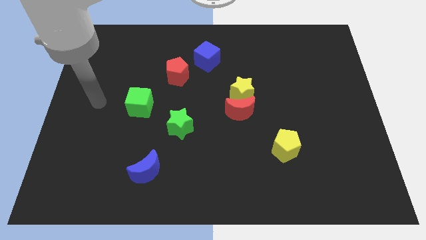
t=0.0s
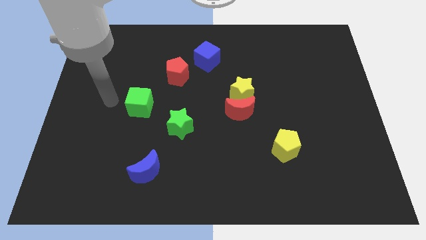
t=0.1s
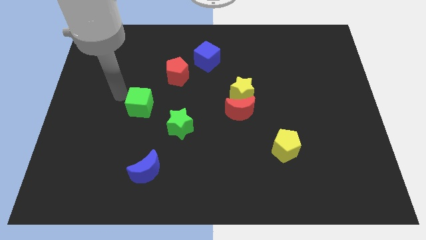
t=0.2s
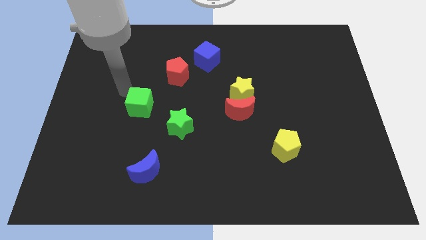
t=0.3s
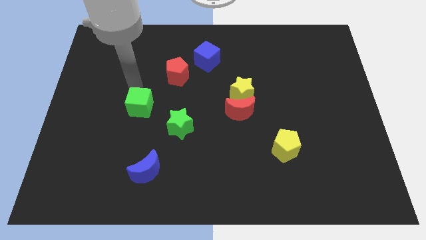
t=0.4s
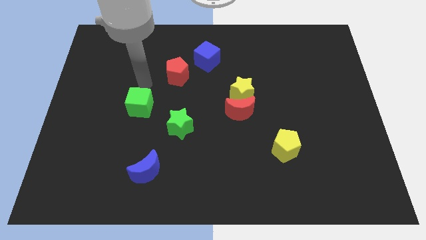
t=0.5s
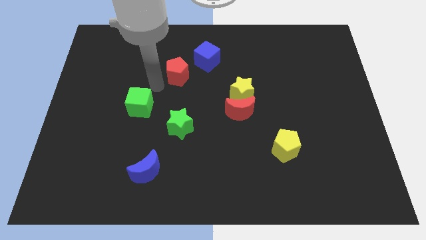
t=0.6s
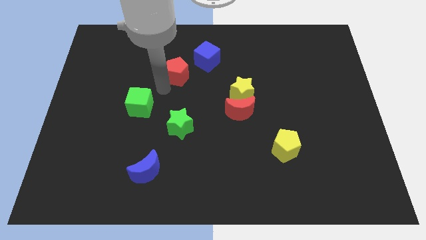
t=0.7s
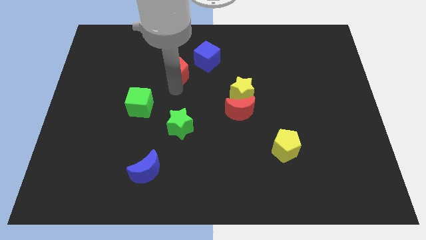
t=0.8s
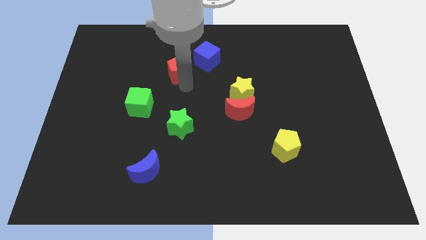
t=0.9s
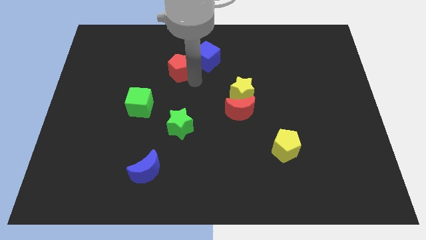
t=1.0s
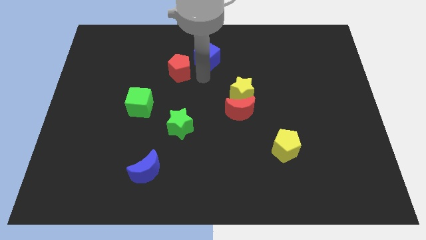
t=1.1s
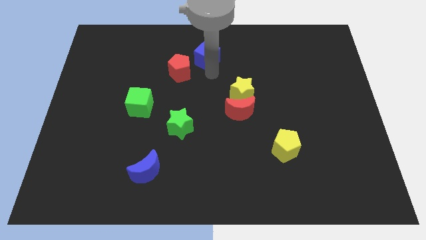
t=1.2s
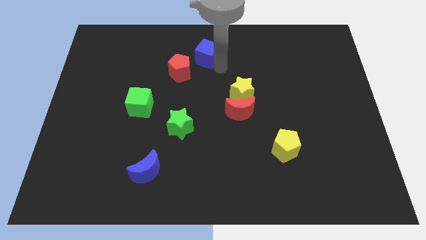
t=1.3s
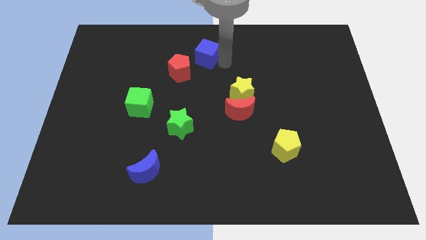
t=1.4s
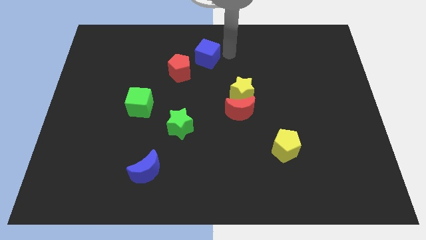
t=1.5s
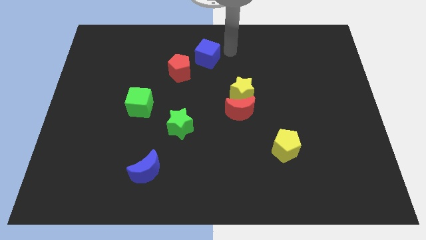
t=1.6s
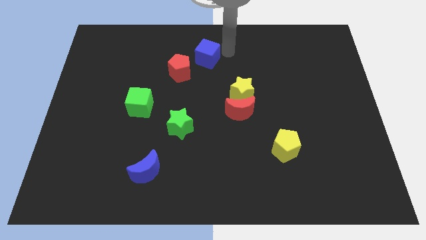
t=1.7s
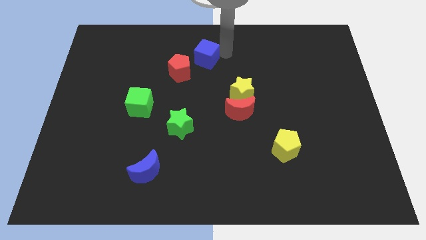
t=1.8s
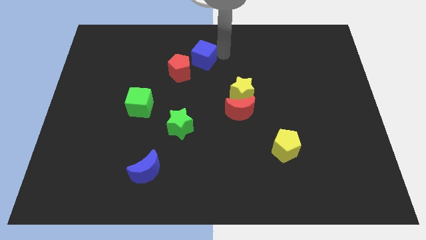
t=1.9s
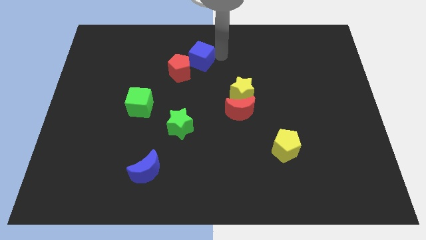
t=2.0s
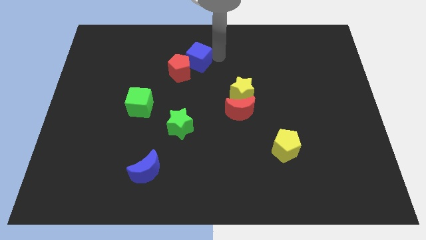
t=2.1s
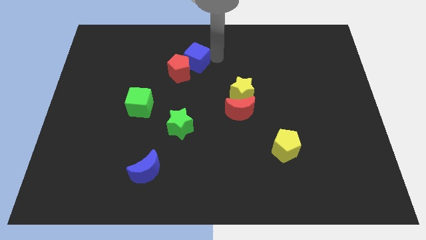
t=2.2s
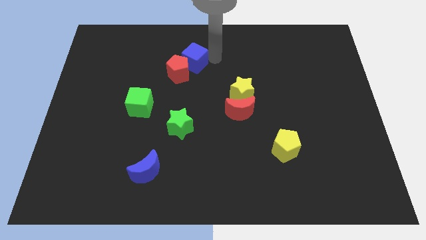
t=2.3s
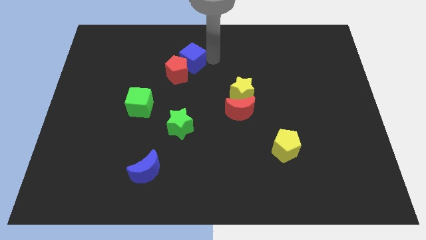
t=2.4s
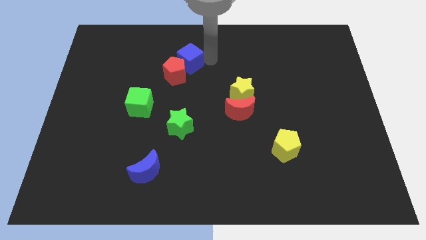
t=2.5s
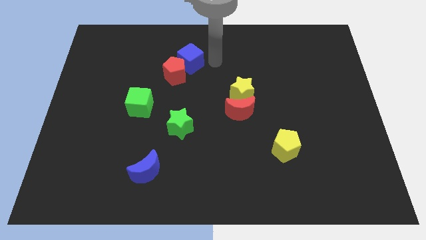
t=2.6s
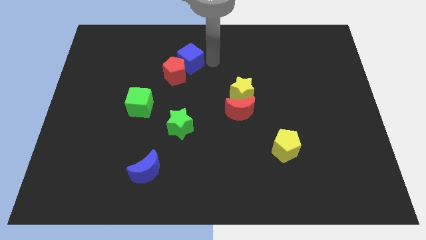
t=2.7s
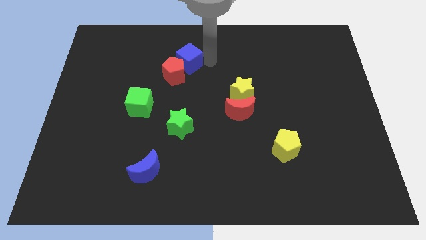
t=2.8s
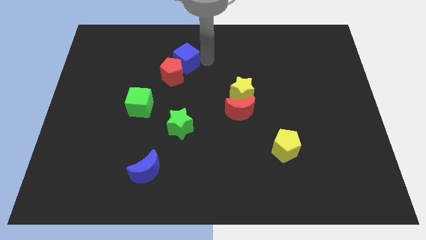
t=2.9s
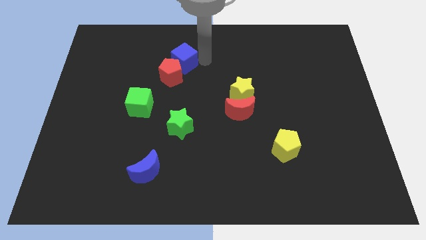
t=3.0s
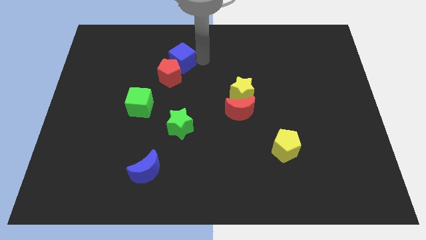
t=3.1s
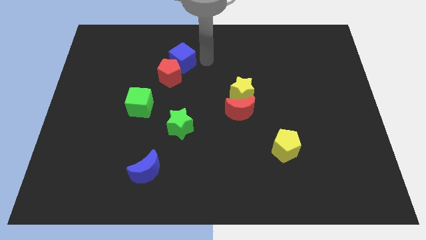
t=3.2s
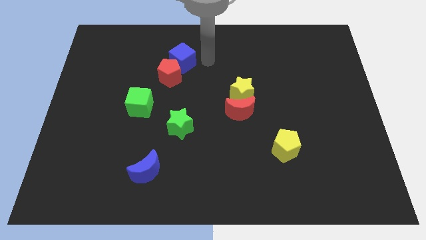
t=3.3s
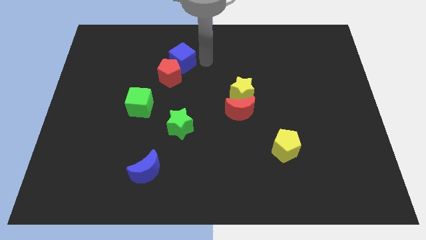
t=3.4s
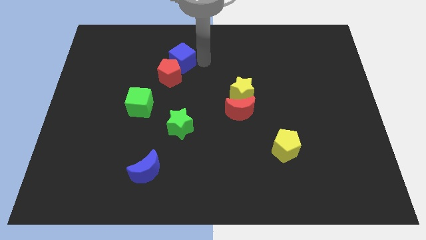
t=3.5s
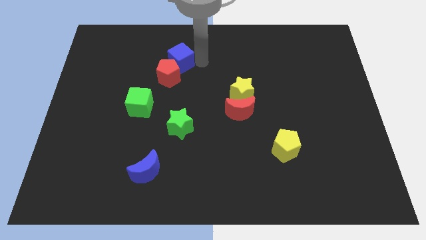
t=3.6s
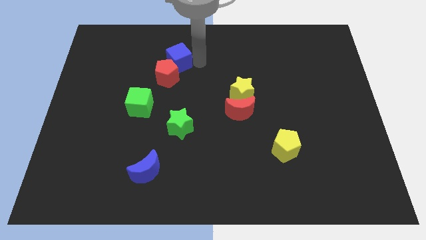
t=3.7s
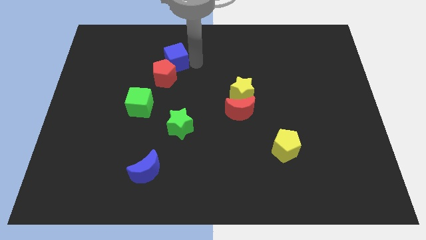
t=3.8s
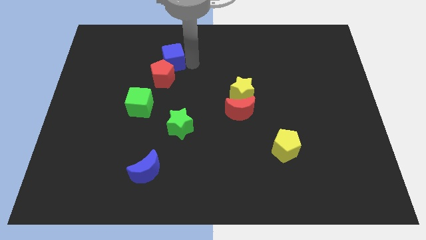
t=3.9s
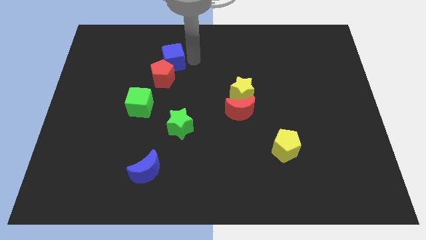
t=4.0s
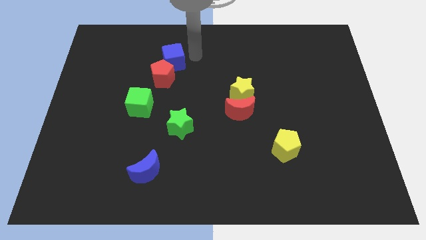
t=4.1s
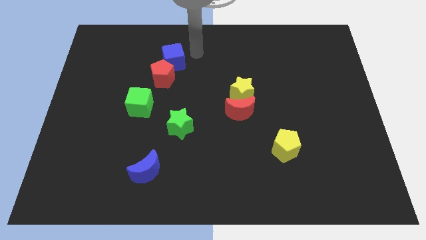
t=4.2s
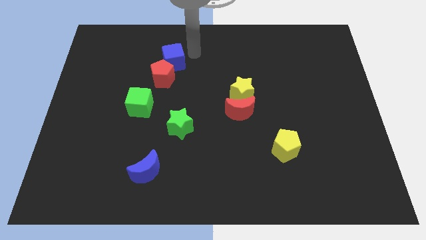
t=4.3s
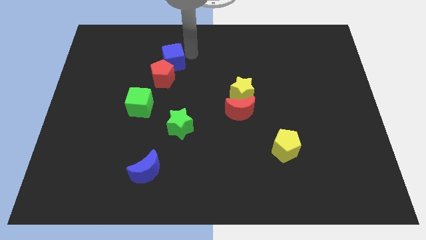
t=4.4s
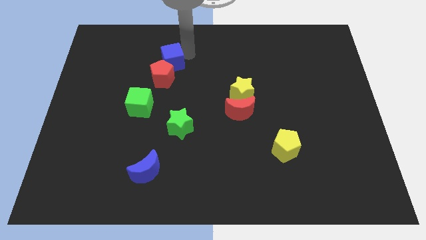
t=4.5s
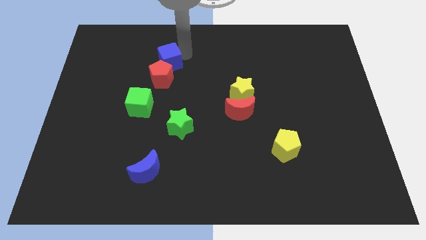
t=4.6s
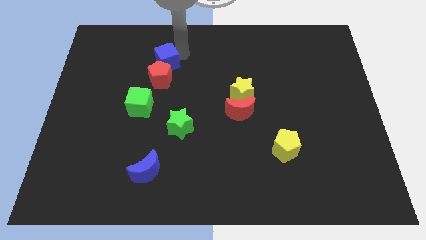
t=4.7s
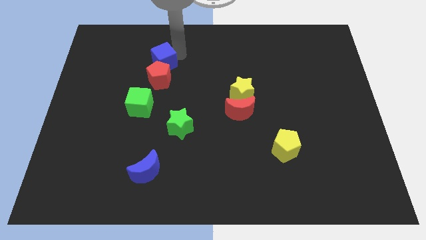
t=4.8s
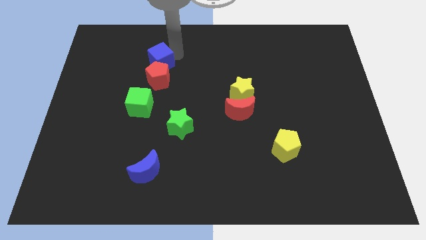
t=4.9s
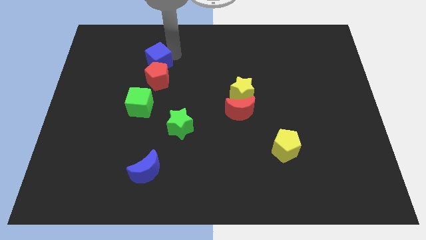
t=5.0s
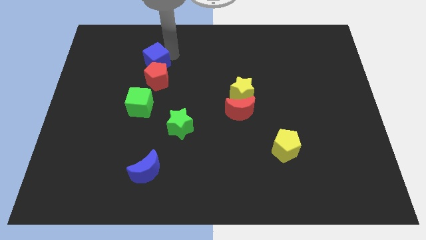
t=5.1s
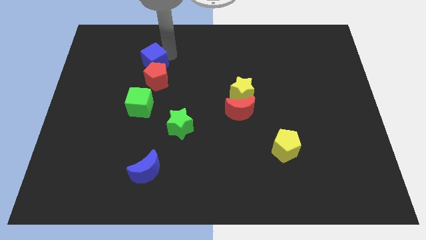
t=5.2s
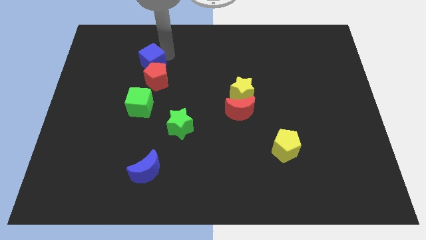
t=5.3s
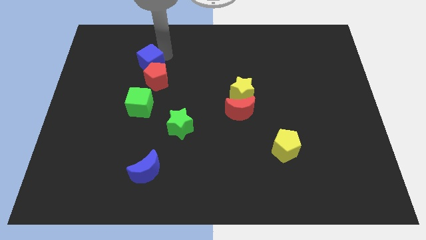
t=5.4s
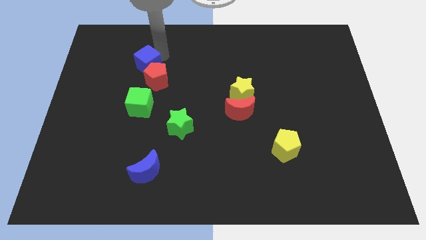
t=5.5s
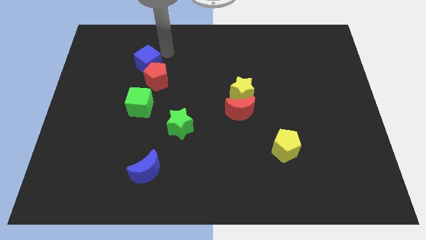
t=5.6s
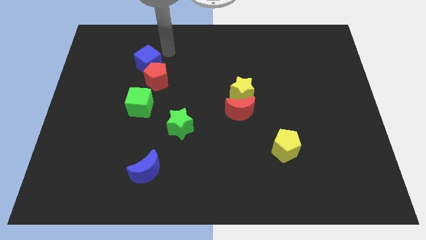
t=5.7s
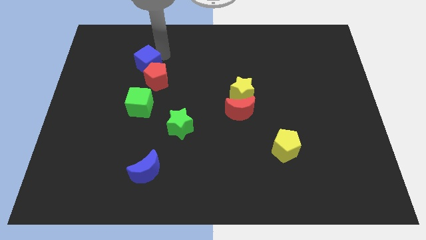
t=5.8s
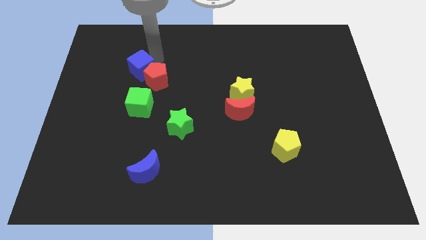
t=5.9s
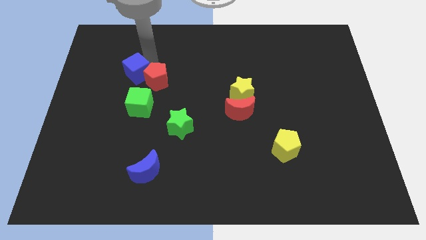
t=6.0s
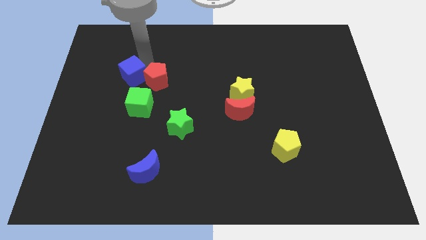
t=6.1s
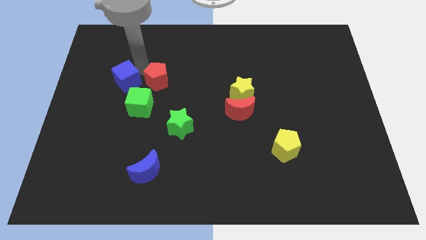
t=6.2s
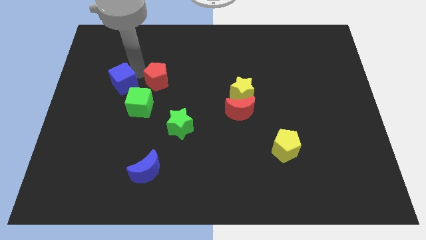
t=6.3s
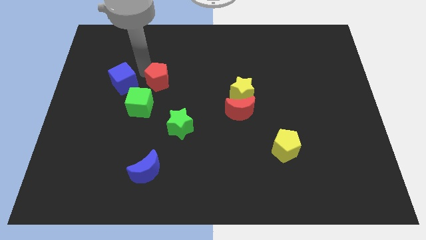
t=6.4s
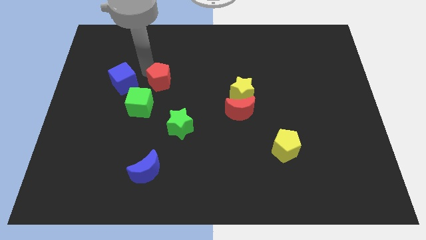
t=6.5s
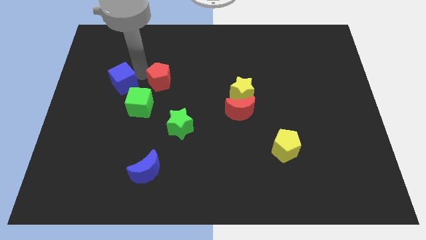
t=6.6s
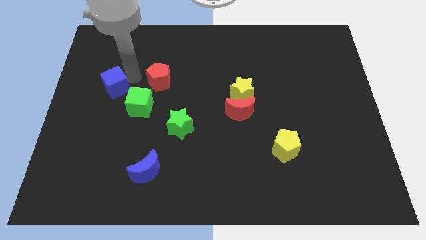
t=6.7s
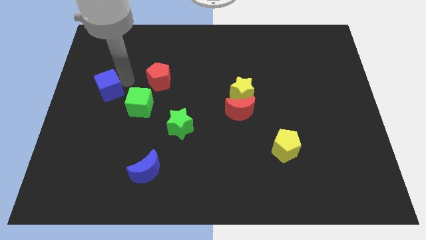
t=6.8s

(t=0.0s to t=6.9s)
slide the blue cube to the center left
